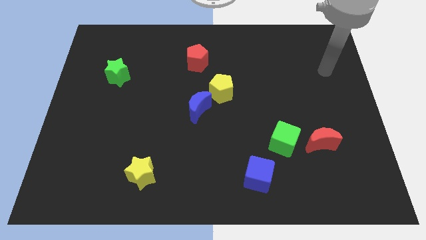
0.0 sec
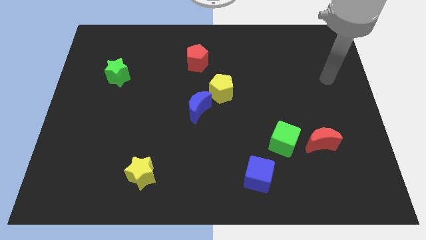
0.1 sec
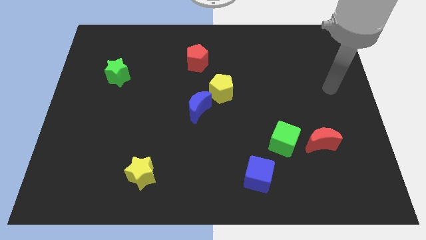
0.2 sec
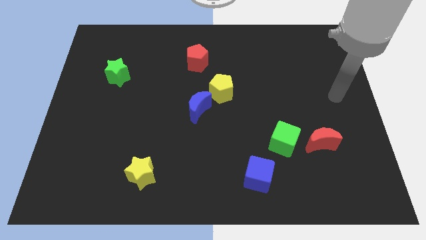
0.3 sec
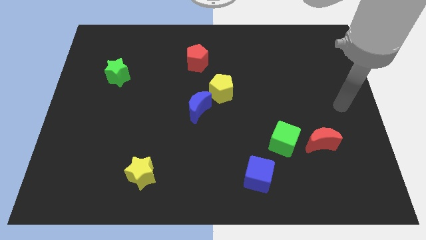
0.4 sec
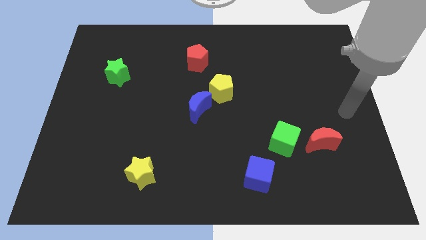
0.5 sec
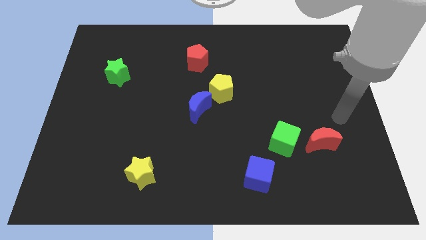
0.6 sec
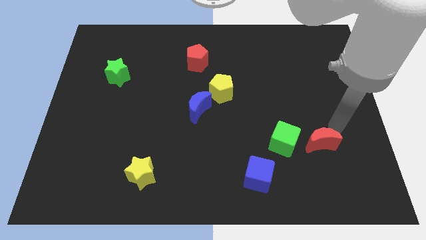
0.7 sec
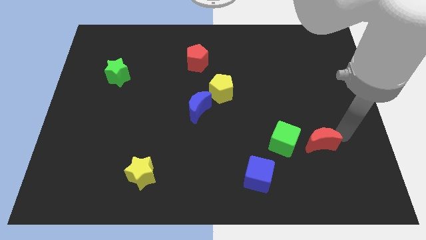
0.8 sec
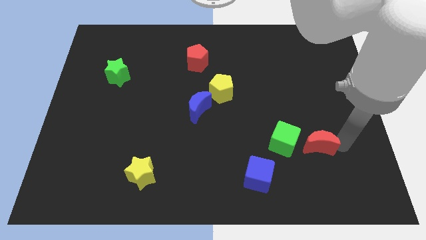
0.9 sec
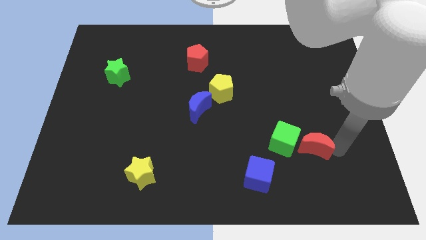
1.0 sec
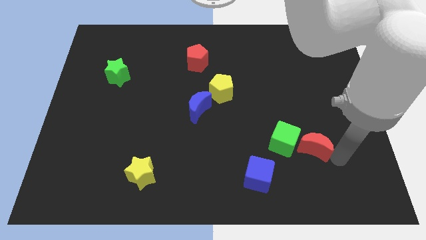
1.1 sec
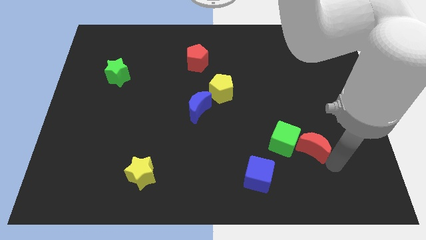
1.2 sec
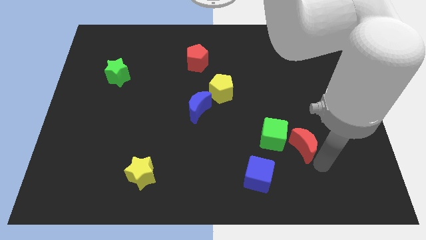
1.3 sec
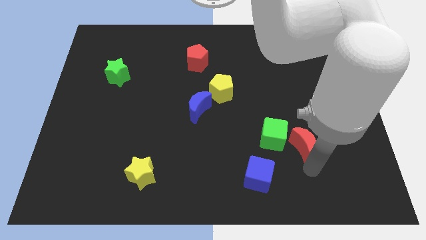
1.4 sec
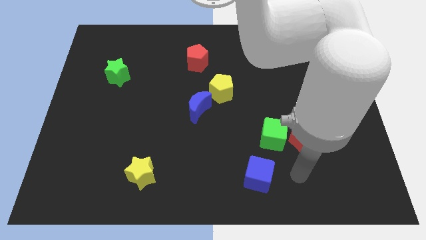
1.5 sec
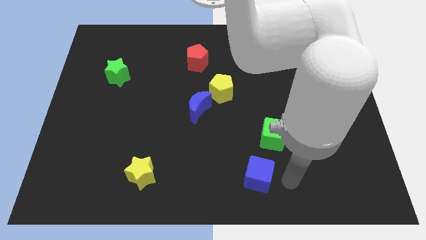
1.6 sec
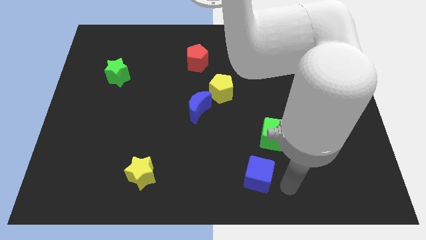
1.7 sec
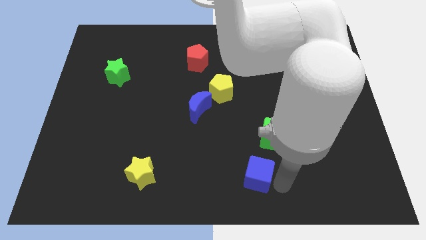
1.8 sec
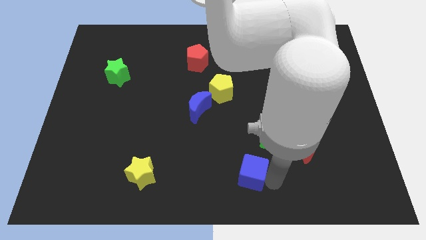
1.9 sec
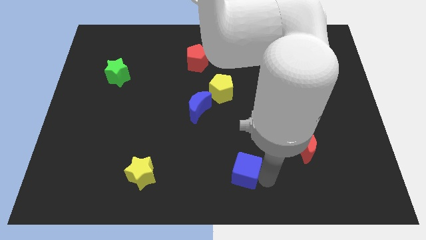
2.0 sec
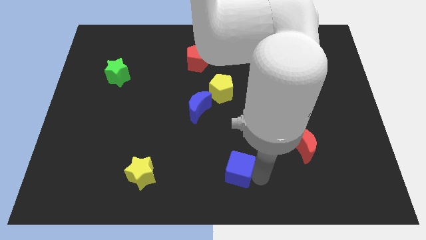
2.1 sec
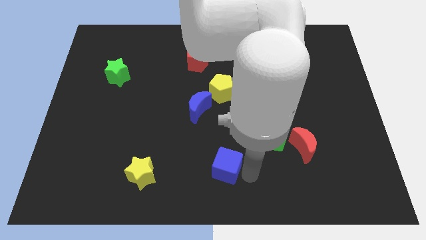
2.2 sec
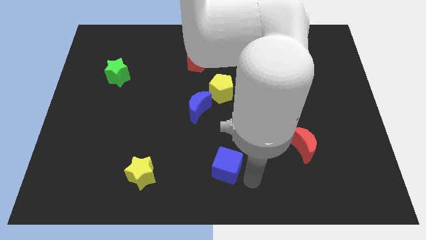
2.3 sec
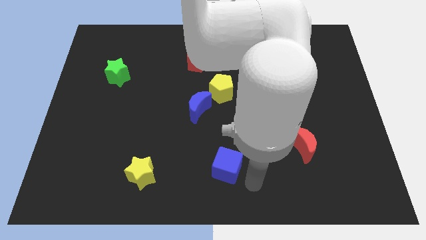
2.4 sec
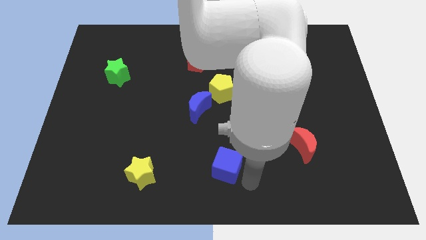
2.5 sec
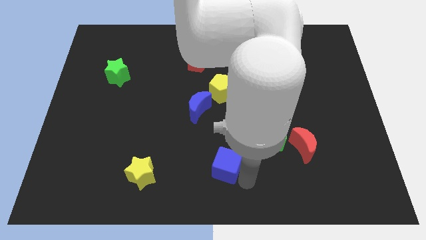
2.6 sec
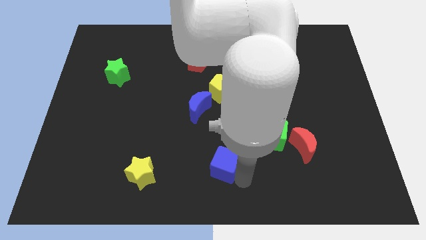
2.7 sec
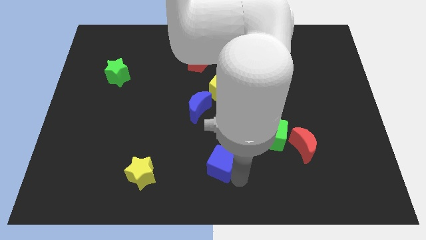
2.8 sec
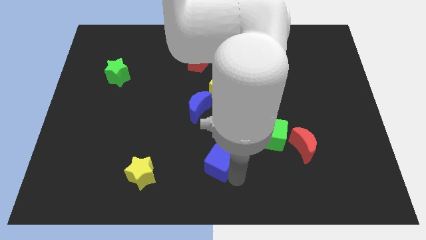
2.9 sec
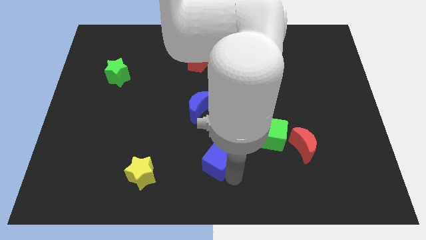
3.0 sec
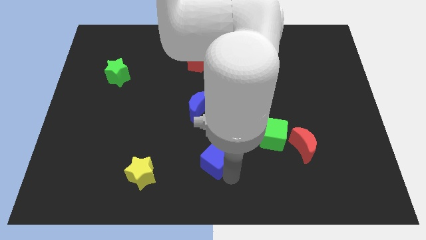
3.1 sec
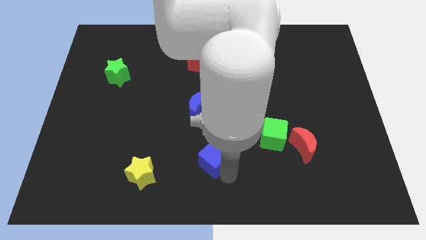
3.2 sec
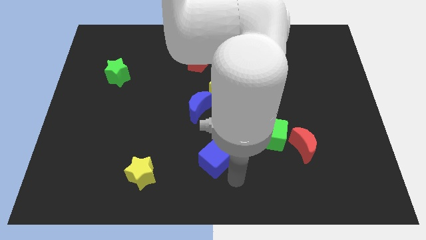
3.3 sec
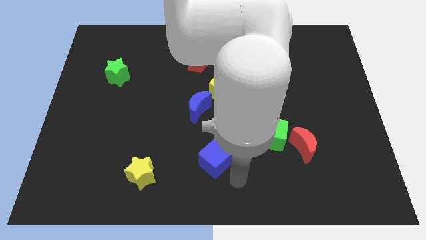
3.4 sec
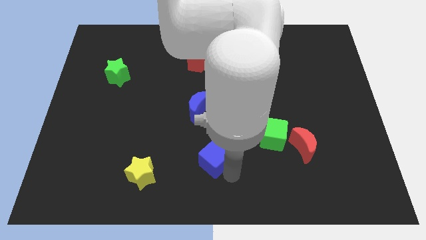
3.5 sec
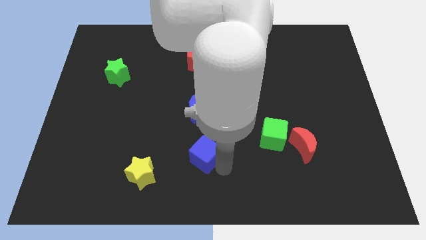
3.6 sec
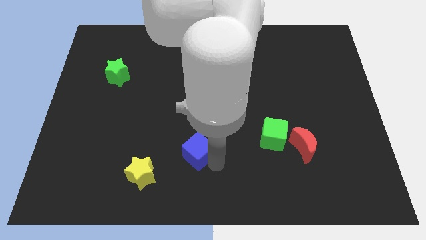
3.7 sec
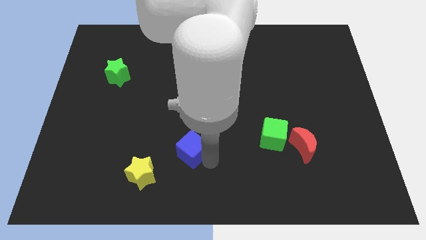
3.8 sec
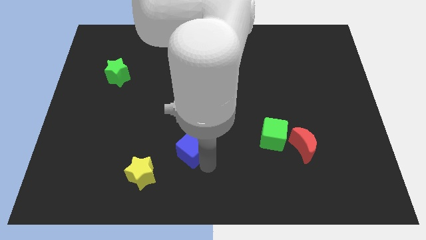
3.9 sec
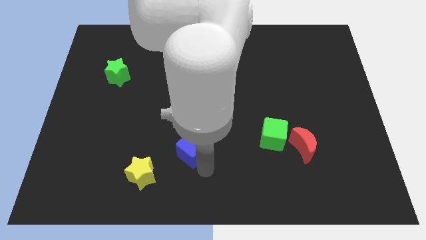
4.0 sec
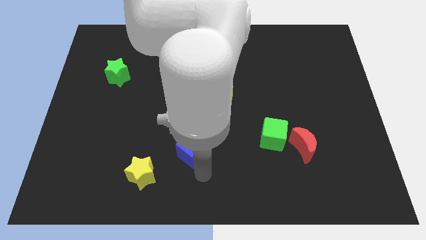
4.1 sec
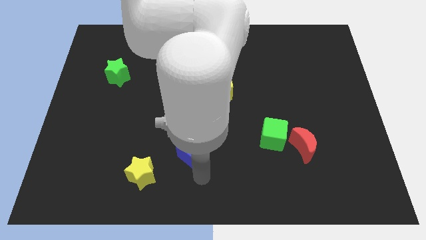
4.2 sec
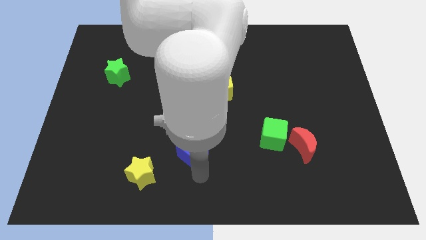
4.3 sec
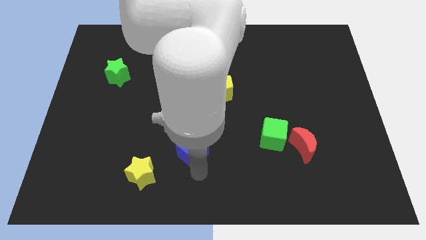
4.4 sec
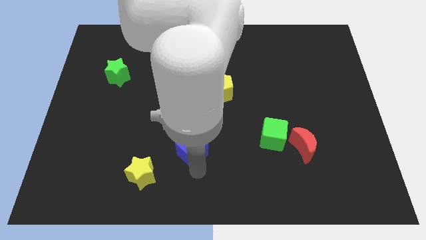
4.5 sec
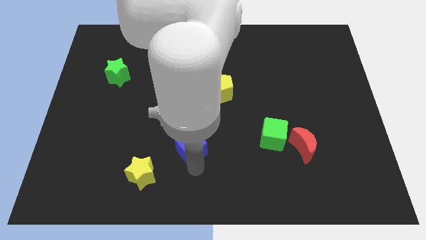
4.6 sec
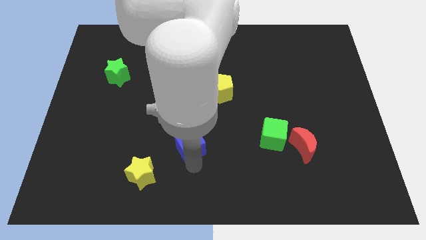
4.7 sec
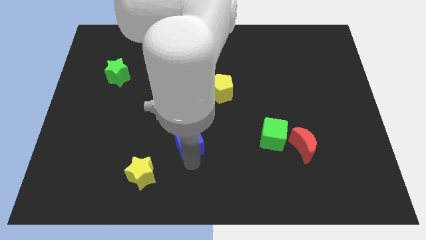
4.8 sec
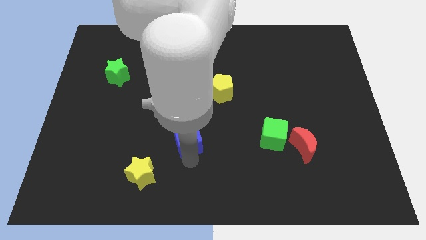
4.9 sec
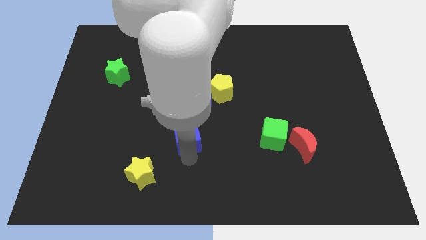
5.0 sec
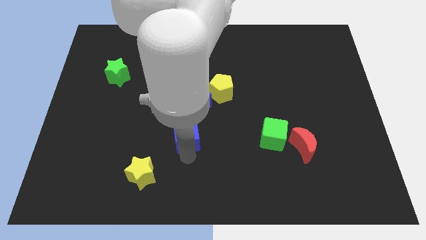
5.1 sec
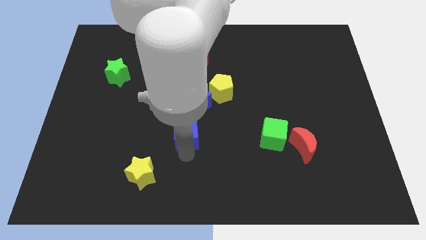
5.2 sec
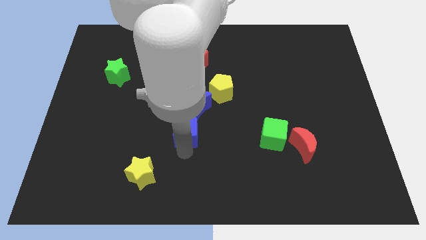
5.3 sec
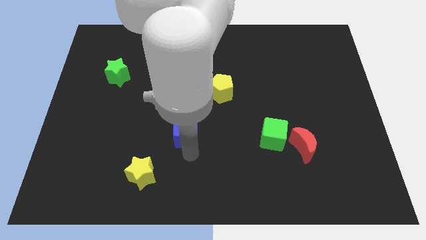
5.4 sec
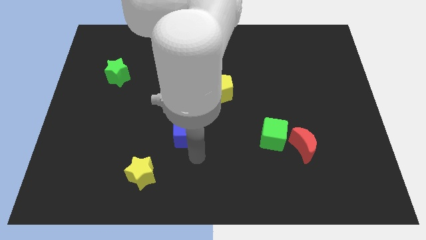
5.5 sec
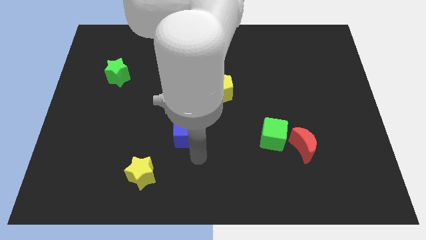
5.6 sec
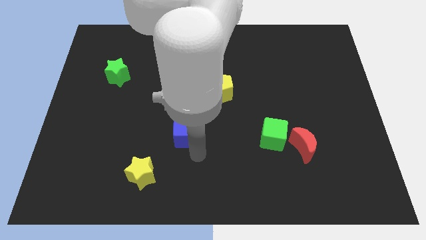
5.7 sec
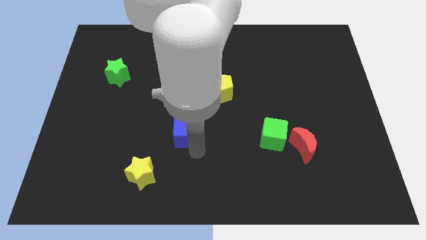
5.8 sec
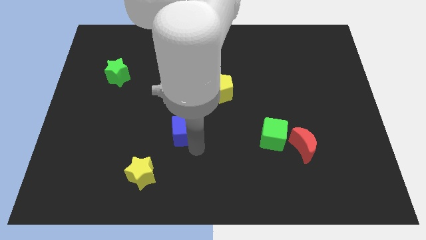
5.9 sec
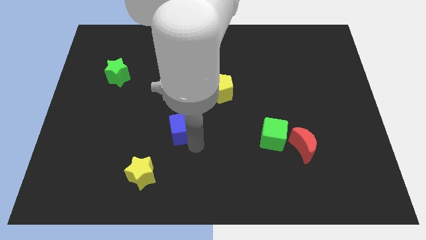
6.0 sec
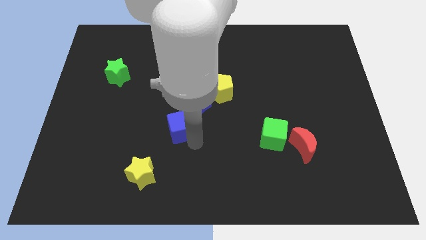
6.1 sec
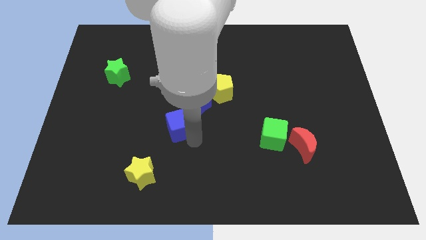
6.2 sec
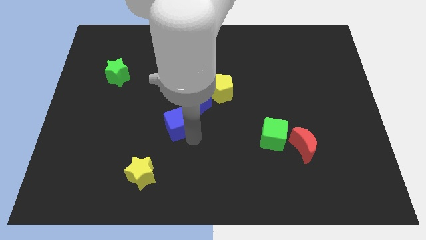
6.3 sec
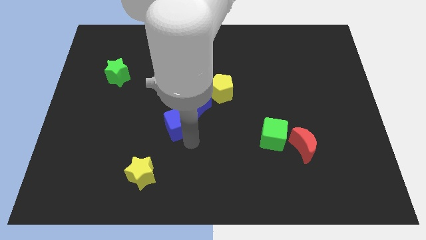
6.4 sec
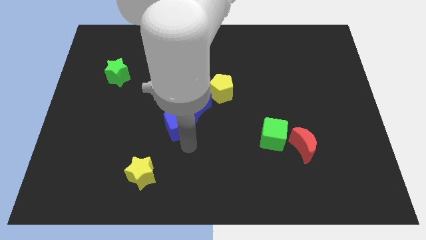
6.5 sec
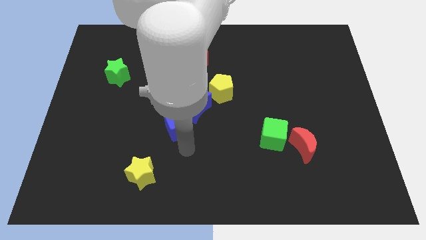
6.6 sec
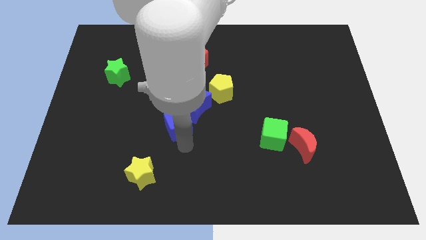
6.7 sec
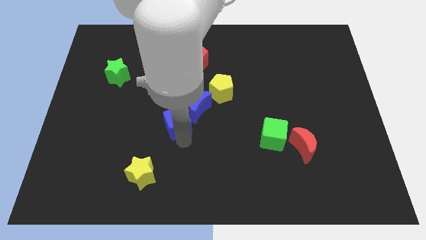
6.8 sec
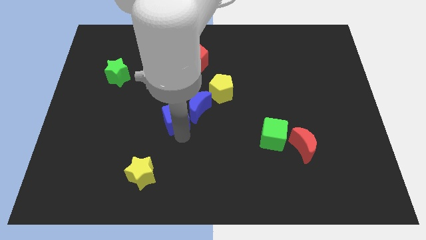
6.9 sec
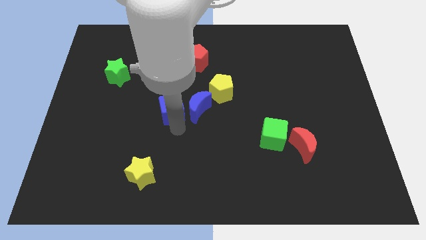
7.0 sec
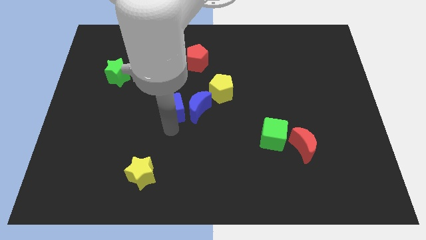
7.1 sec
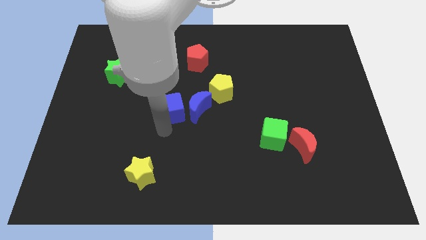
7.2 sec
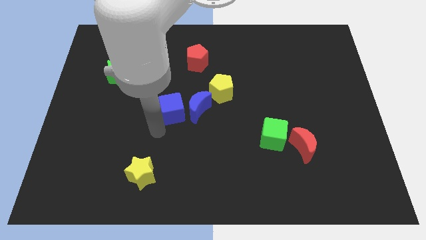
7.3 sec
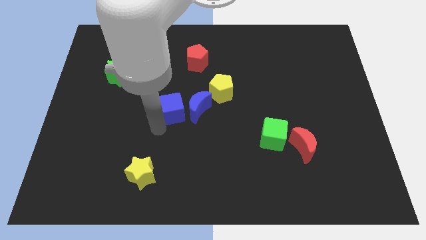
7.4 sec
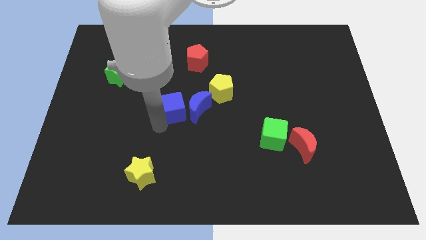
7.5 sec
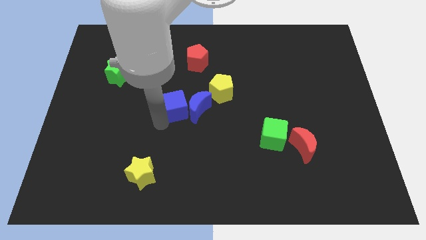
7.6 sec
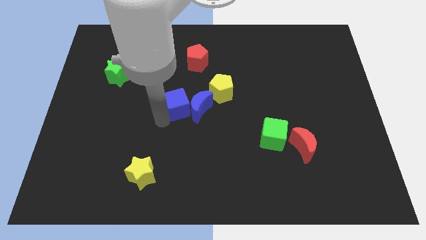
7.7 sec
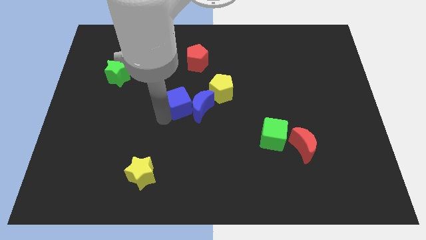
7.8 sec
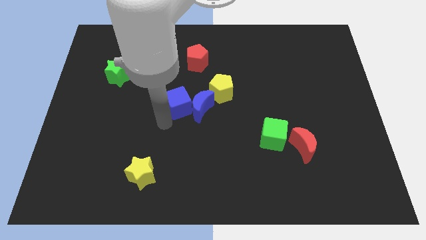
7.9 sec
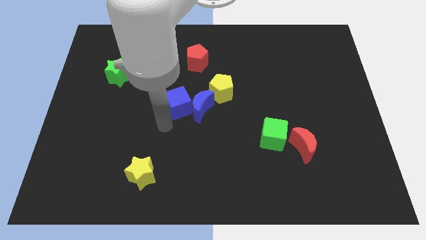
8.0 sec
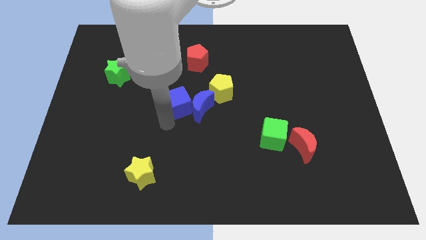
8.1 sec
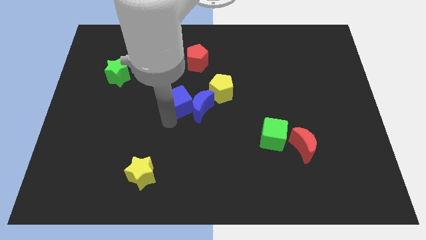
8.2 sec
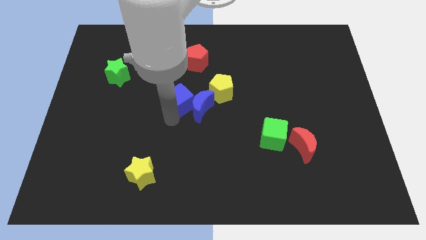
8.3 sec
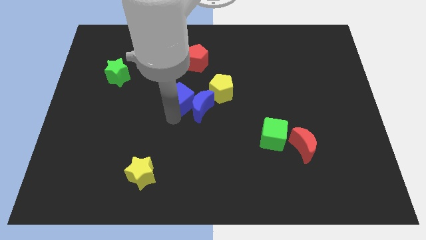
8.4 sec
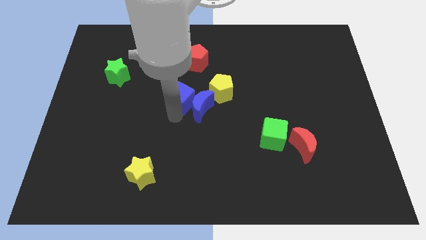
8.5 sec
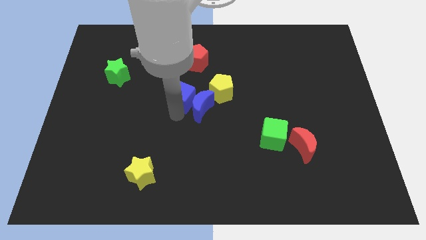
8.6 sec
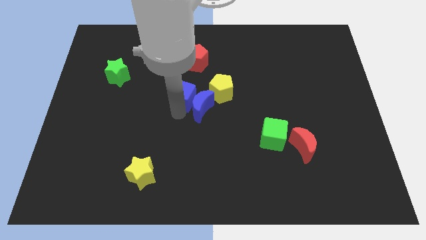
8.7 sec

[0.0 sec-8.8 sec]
slide the blue cube to the top of the blue moon
